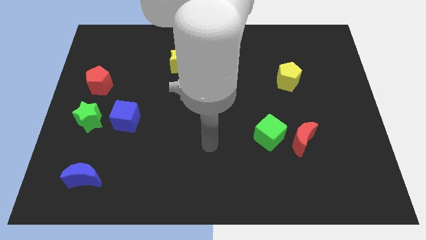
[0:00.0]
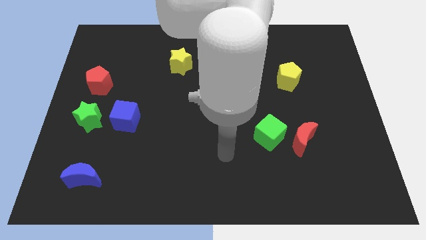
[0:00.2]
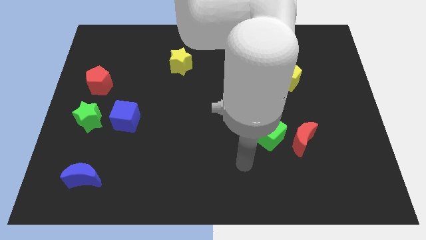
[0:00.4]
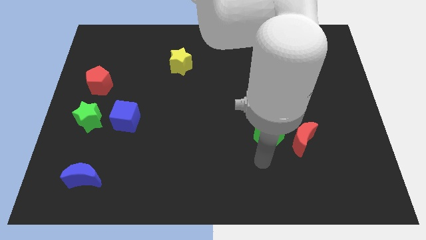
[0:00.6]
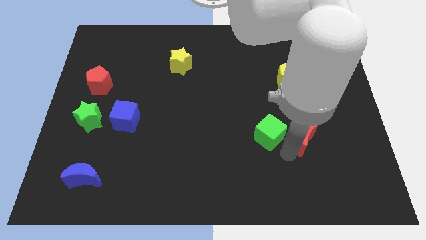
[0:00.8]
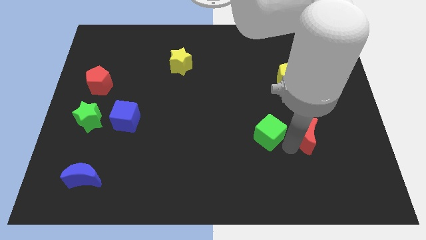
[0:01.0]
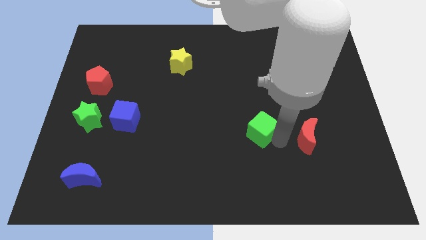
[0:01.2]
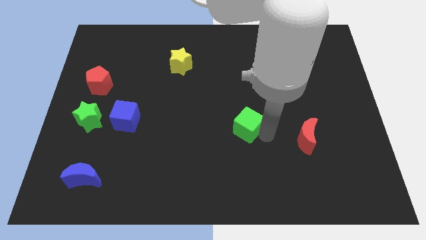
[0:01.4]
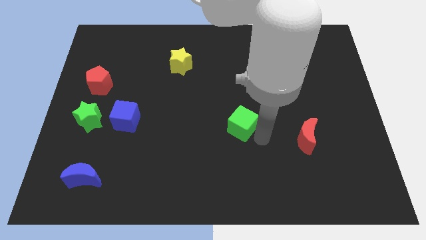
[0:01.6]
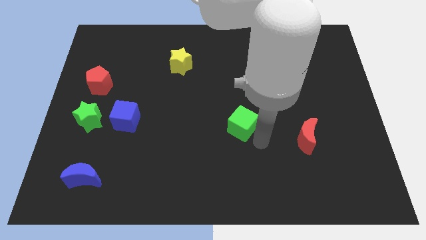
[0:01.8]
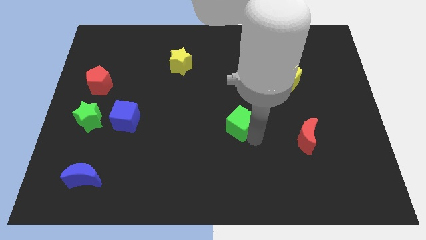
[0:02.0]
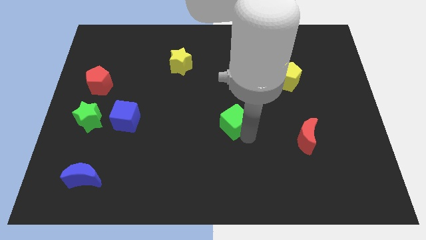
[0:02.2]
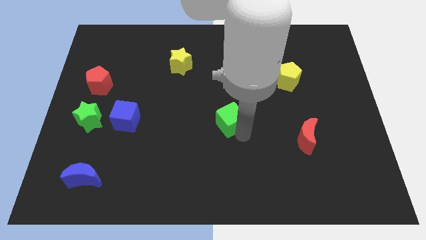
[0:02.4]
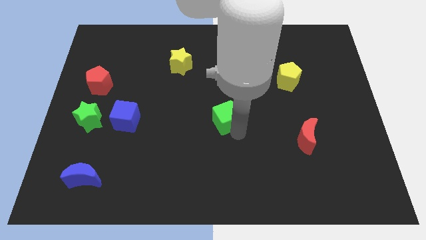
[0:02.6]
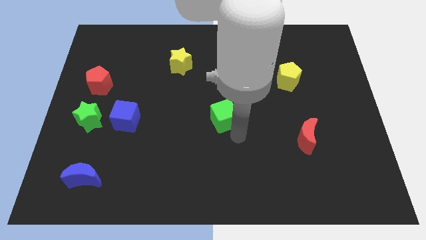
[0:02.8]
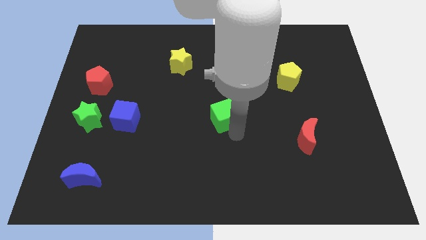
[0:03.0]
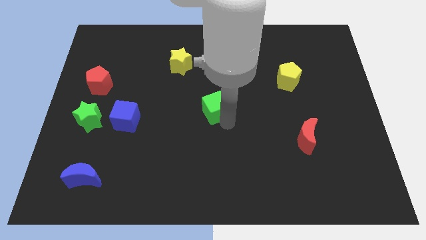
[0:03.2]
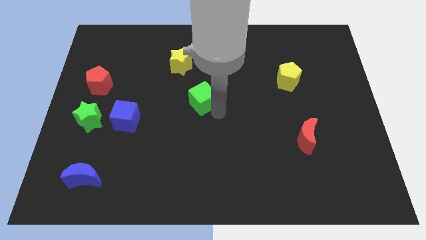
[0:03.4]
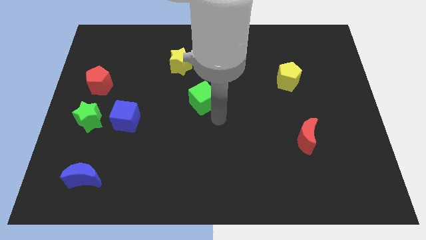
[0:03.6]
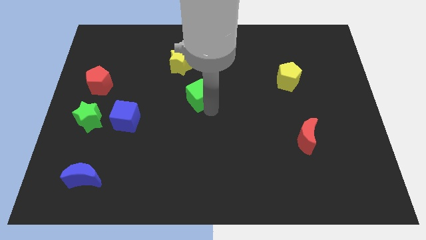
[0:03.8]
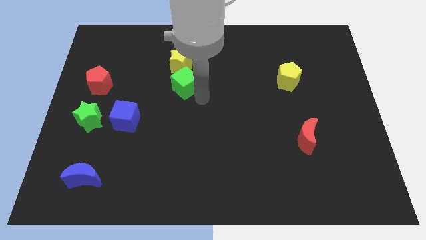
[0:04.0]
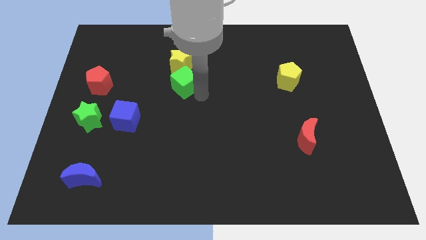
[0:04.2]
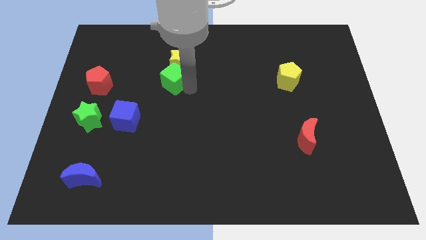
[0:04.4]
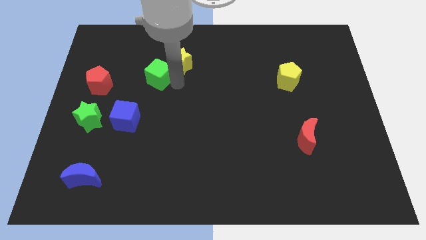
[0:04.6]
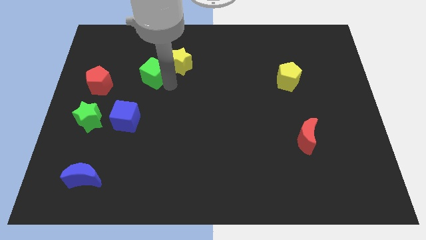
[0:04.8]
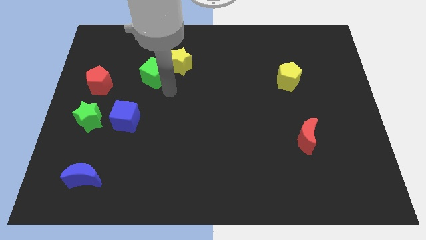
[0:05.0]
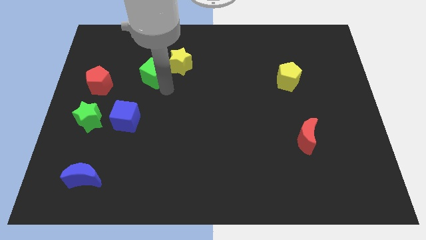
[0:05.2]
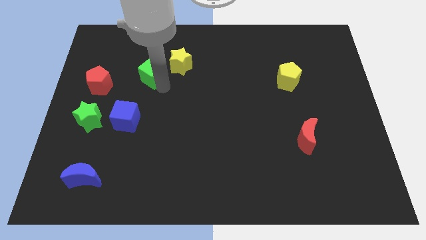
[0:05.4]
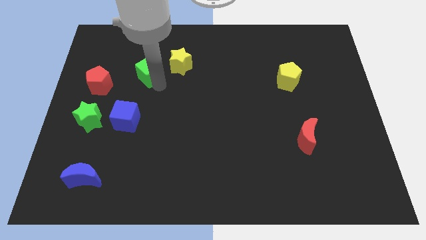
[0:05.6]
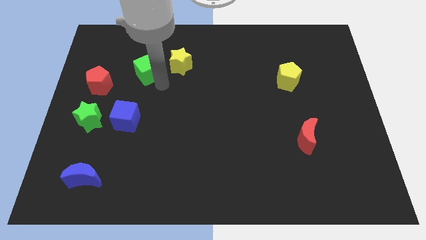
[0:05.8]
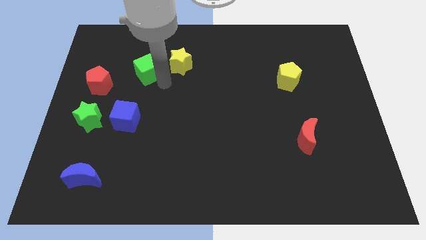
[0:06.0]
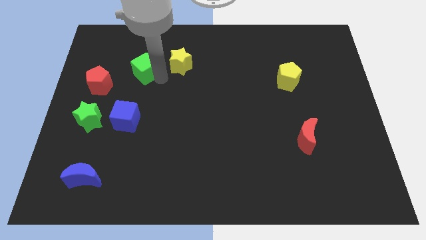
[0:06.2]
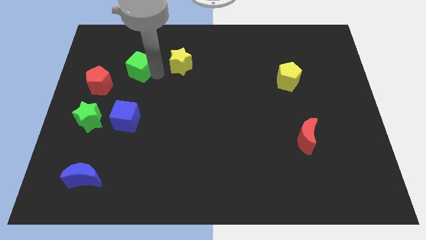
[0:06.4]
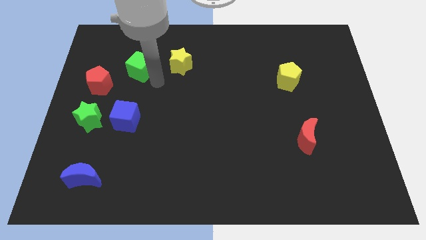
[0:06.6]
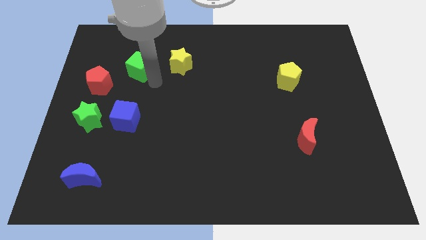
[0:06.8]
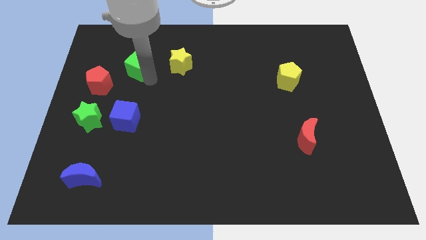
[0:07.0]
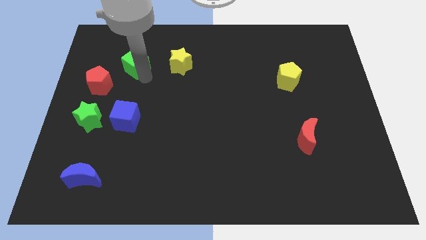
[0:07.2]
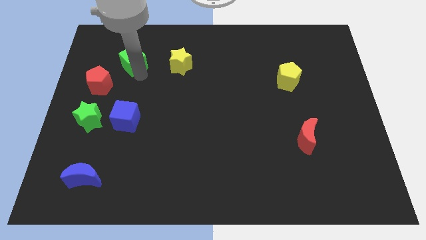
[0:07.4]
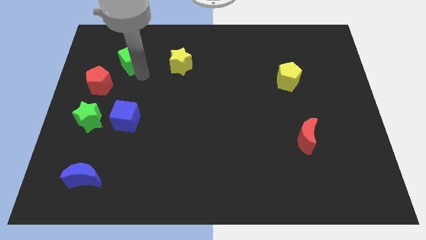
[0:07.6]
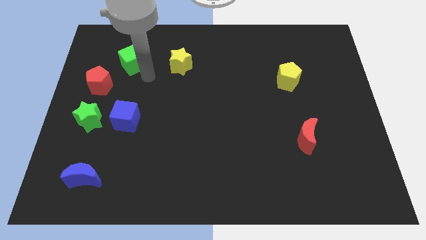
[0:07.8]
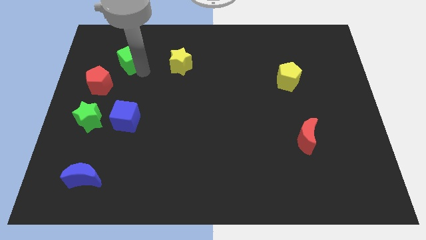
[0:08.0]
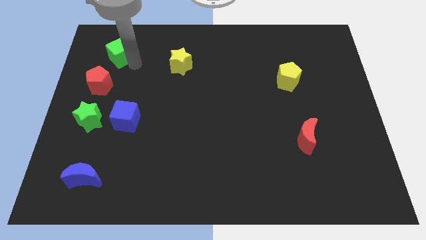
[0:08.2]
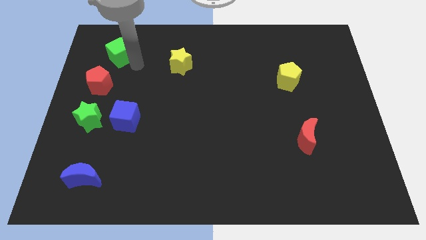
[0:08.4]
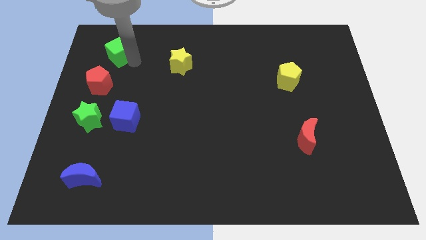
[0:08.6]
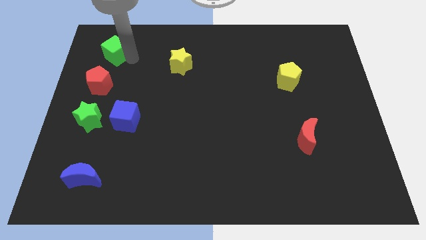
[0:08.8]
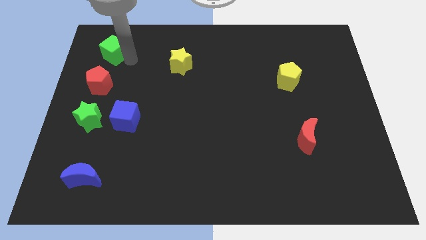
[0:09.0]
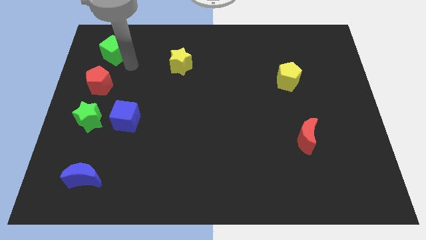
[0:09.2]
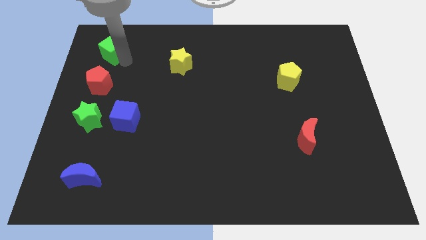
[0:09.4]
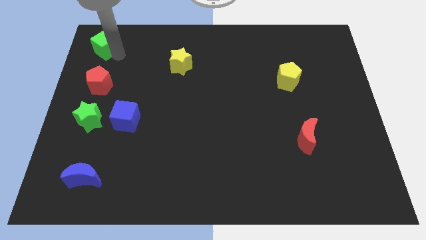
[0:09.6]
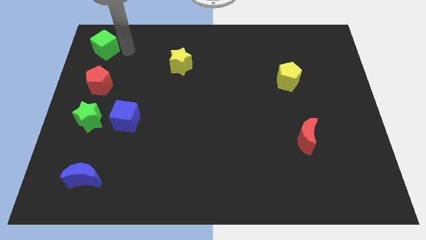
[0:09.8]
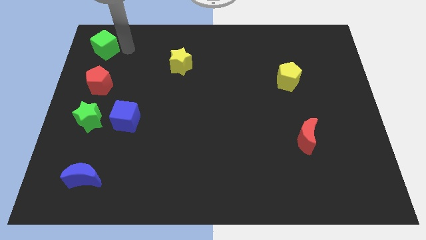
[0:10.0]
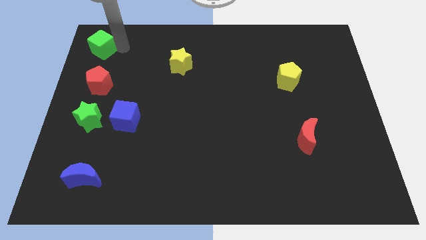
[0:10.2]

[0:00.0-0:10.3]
put the green cube to the top left corner

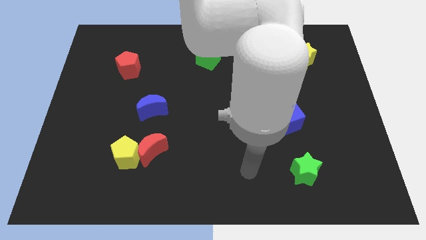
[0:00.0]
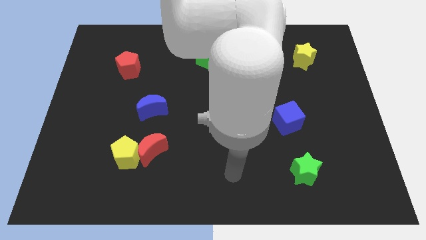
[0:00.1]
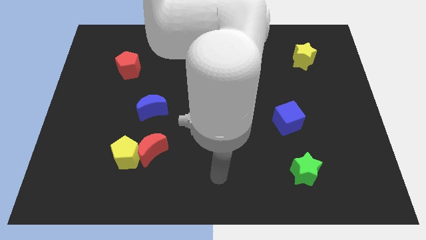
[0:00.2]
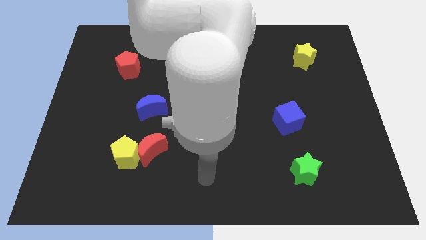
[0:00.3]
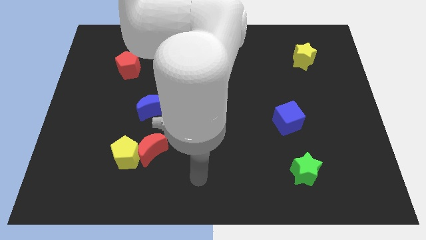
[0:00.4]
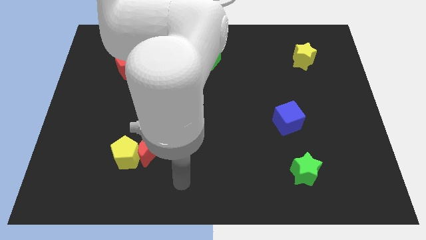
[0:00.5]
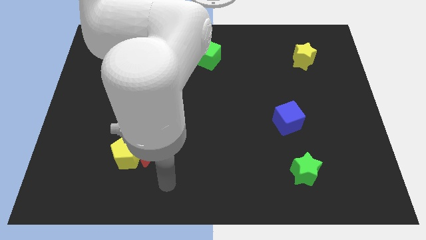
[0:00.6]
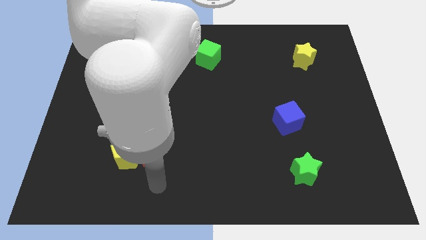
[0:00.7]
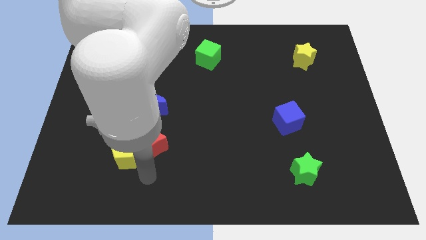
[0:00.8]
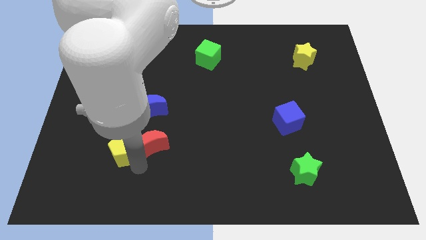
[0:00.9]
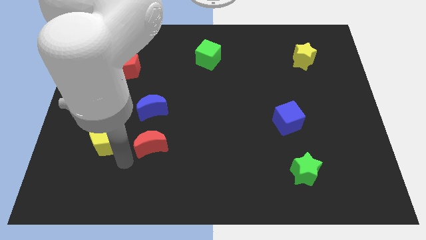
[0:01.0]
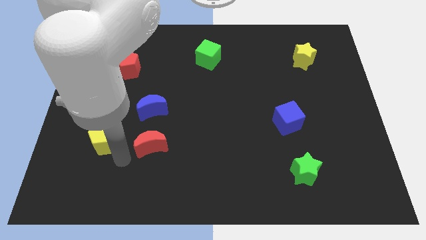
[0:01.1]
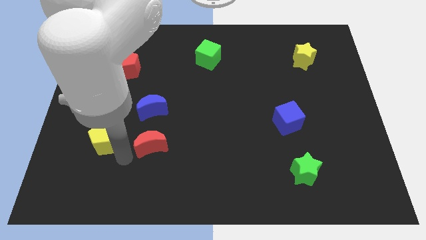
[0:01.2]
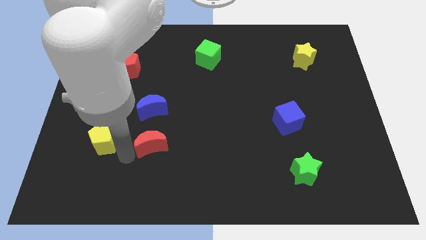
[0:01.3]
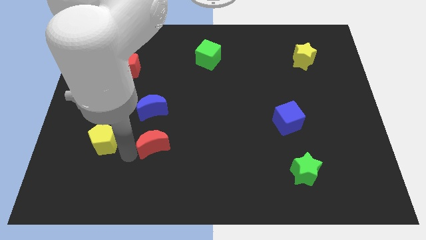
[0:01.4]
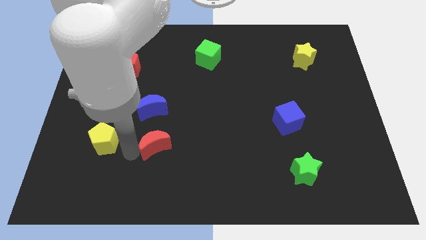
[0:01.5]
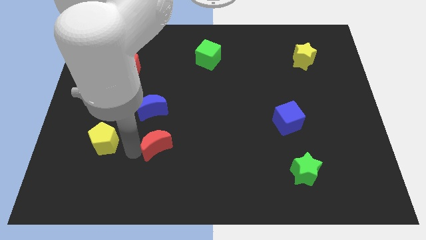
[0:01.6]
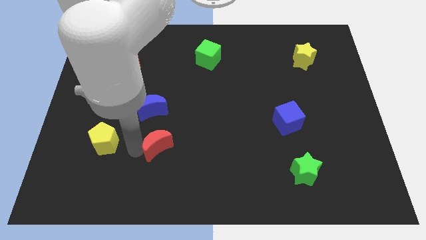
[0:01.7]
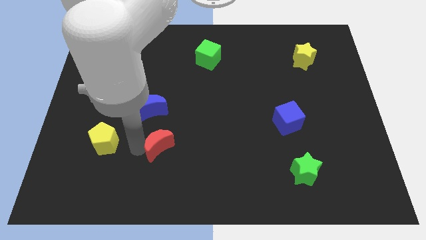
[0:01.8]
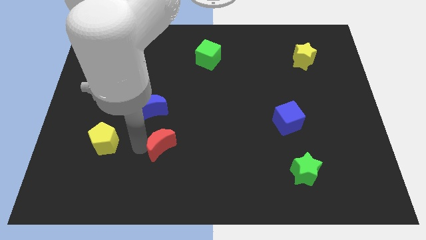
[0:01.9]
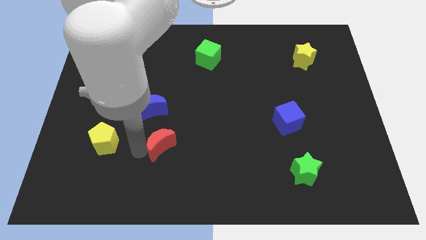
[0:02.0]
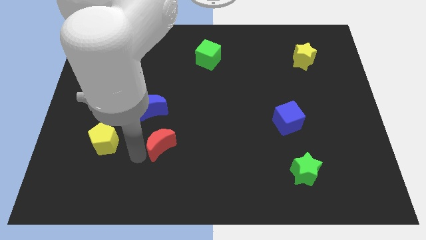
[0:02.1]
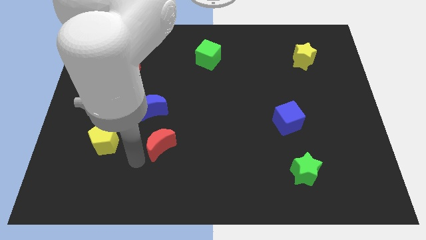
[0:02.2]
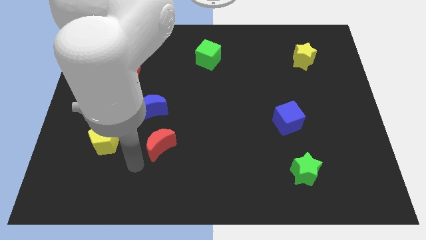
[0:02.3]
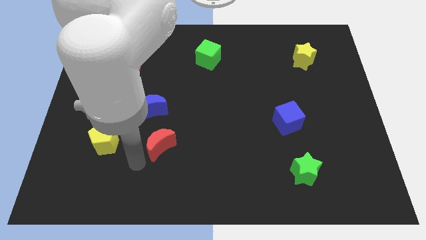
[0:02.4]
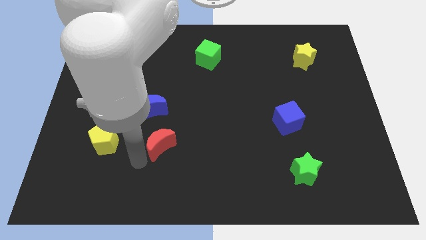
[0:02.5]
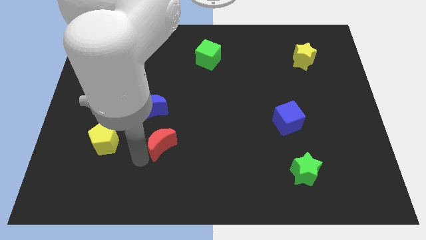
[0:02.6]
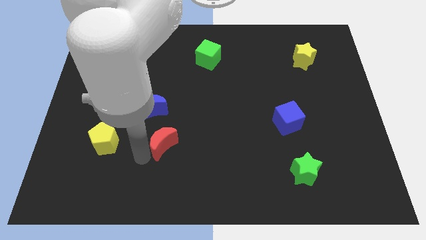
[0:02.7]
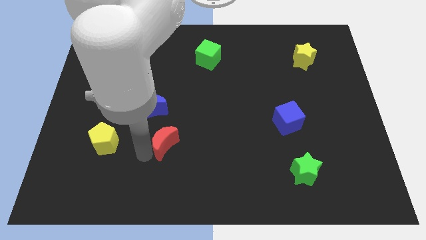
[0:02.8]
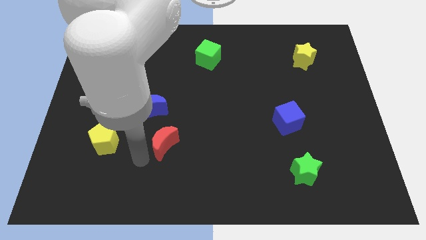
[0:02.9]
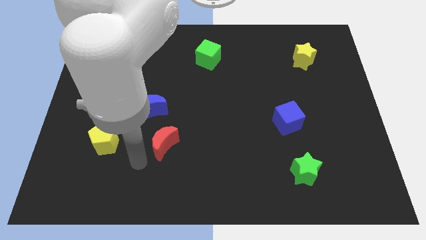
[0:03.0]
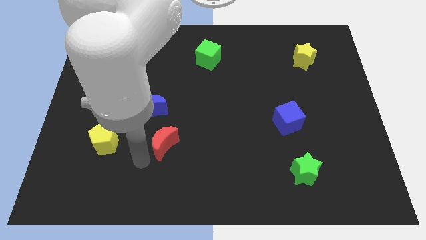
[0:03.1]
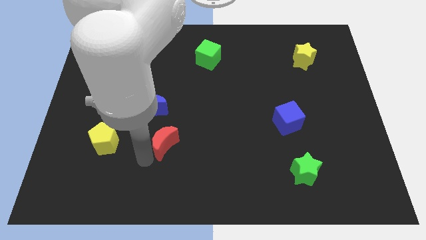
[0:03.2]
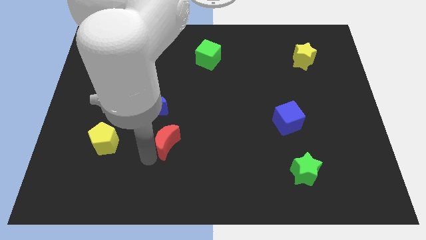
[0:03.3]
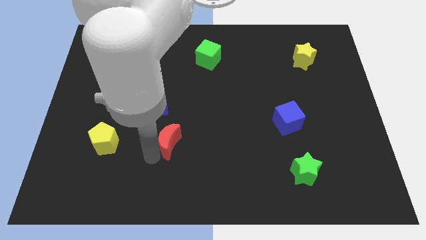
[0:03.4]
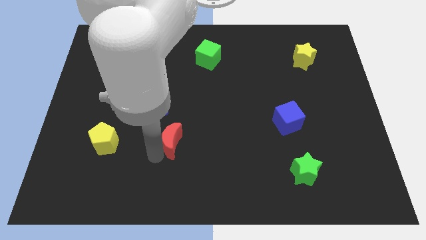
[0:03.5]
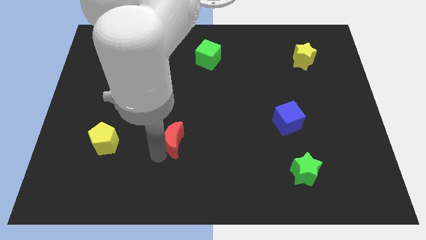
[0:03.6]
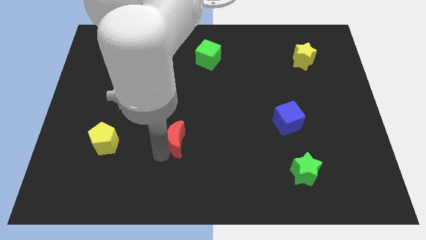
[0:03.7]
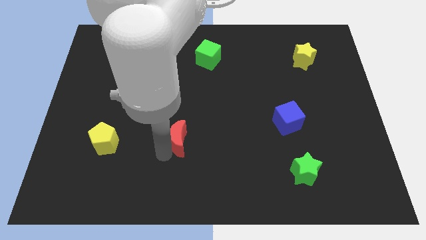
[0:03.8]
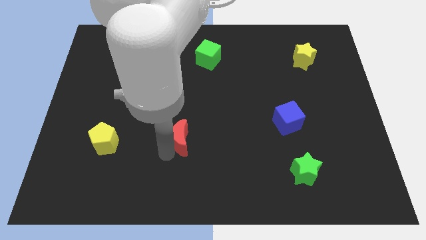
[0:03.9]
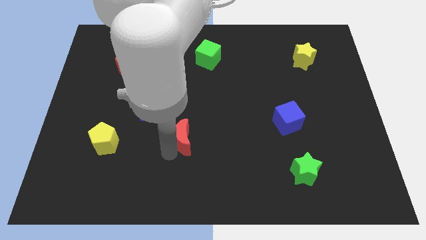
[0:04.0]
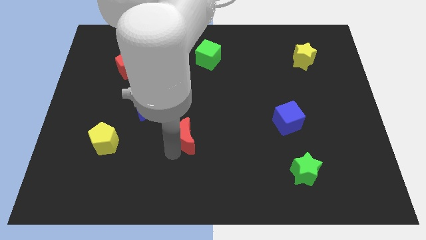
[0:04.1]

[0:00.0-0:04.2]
put the red moon to the center
